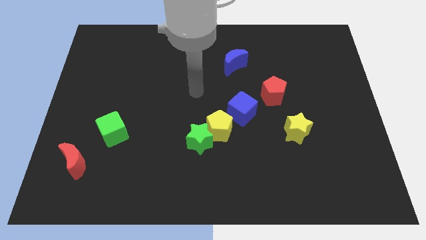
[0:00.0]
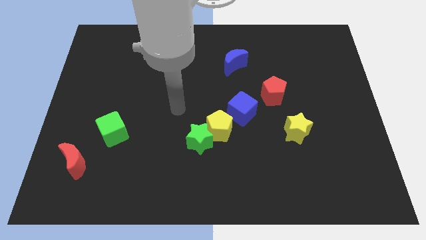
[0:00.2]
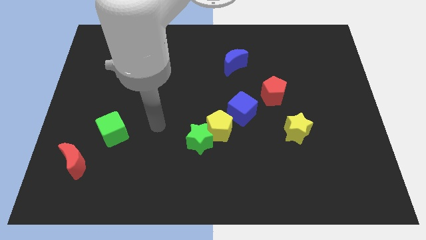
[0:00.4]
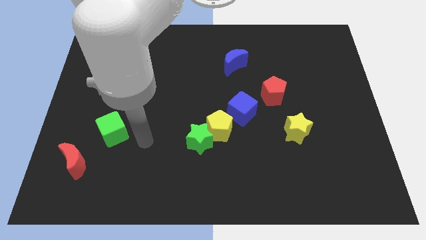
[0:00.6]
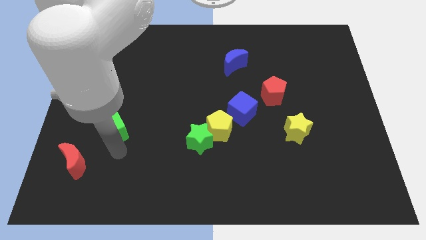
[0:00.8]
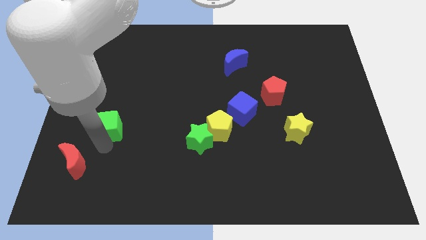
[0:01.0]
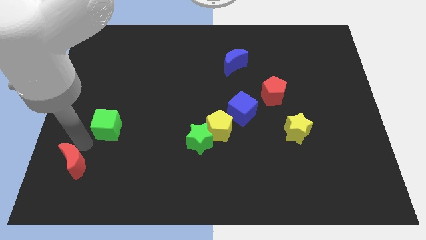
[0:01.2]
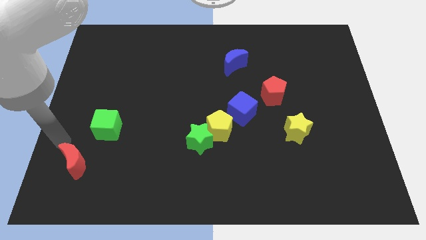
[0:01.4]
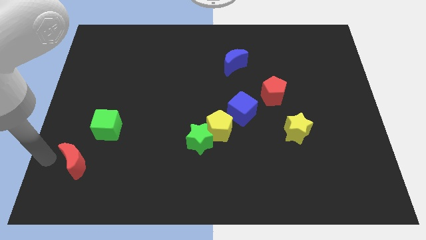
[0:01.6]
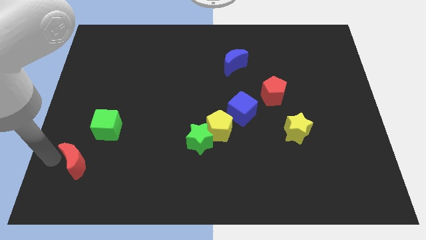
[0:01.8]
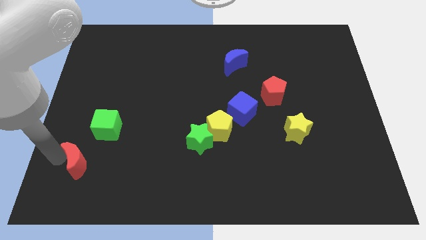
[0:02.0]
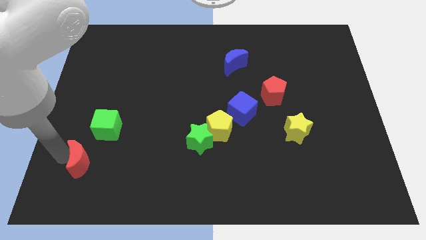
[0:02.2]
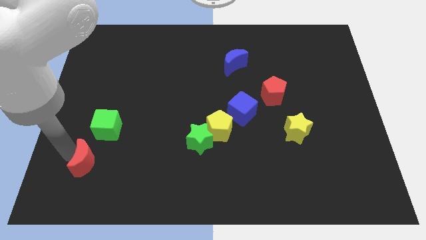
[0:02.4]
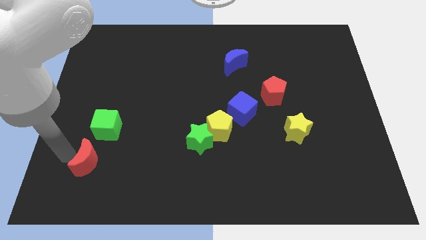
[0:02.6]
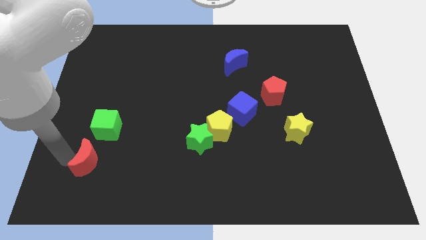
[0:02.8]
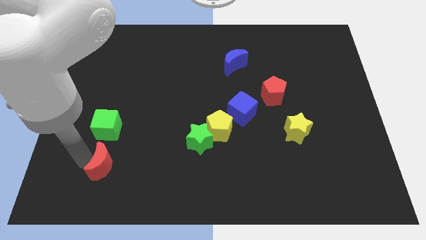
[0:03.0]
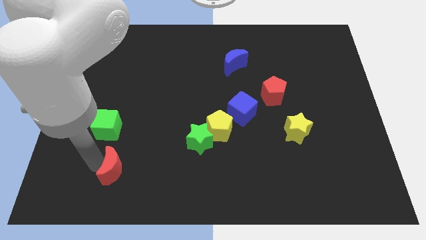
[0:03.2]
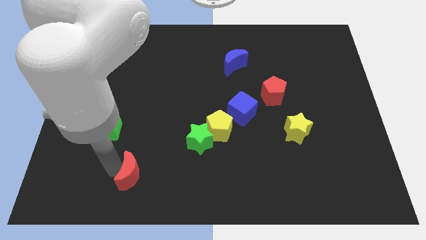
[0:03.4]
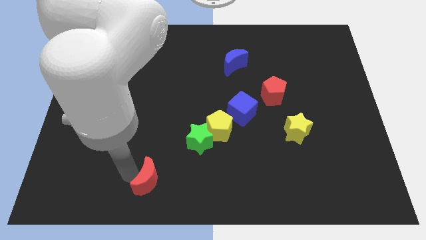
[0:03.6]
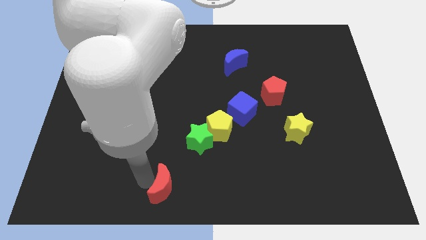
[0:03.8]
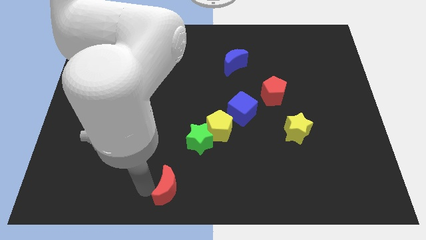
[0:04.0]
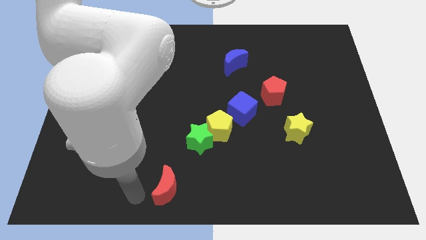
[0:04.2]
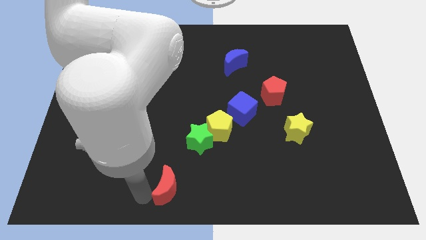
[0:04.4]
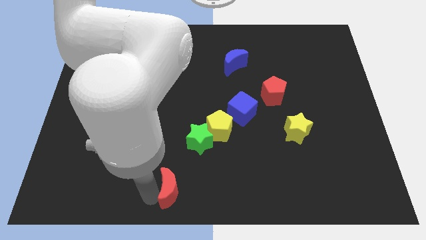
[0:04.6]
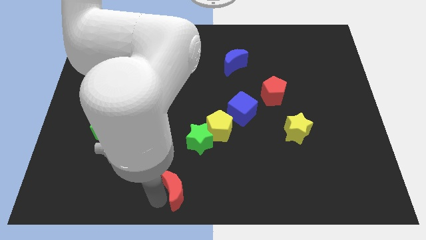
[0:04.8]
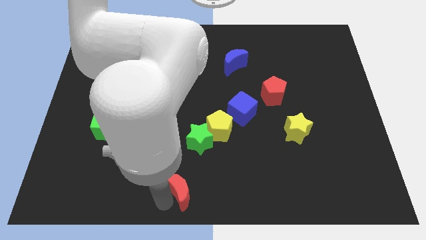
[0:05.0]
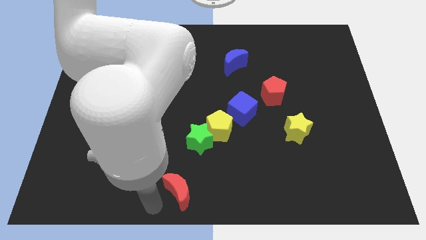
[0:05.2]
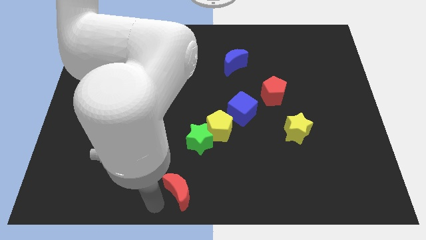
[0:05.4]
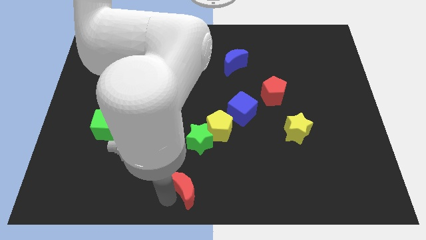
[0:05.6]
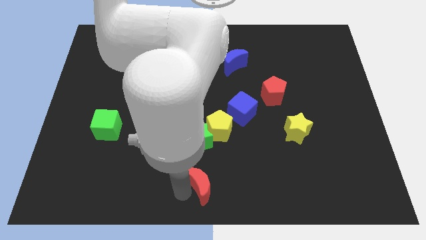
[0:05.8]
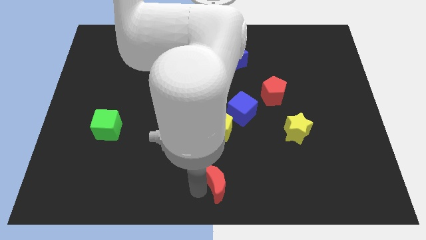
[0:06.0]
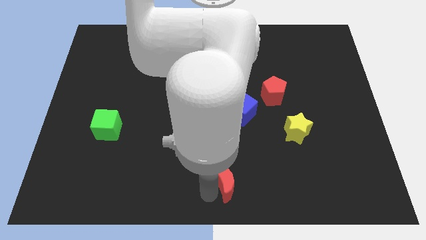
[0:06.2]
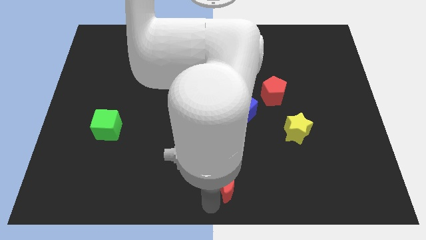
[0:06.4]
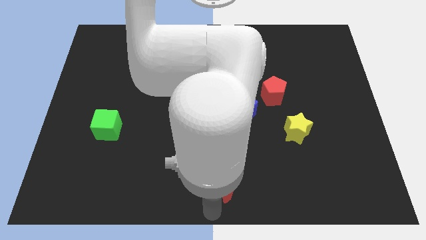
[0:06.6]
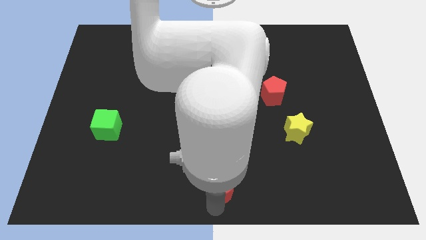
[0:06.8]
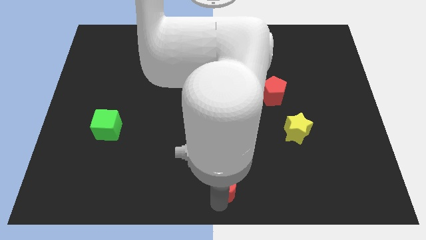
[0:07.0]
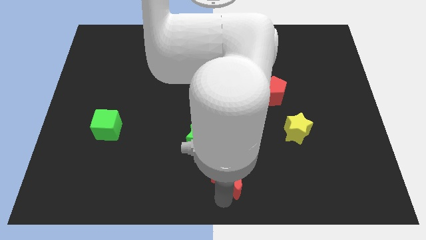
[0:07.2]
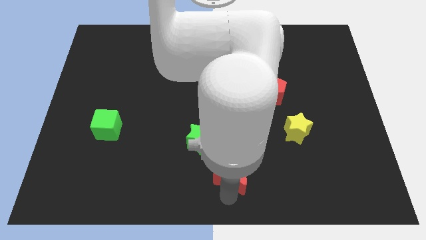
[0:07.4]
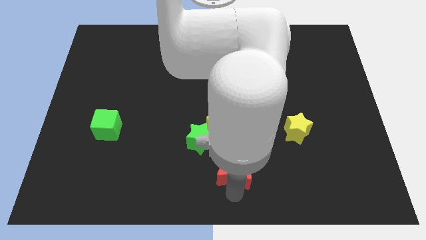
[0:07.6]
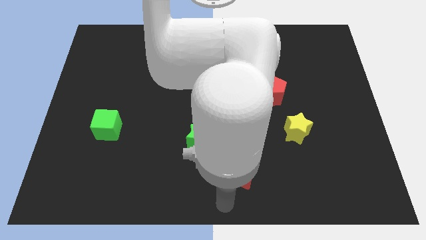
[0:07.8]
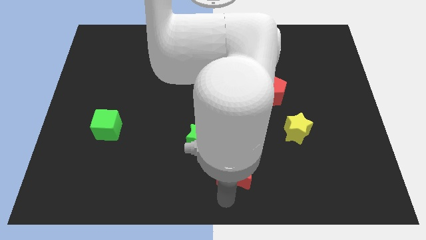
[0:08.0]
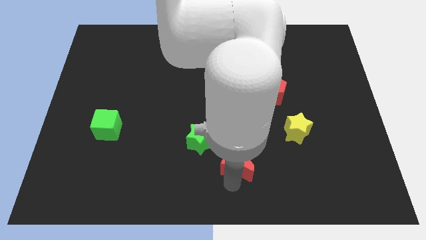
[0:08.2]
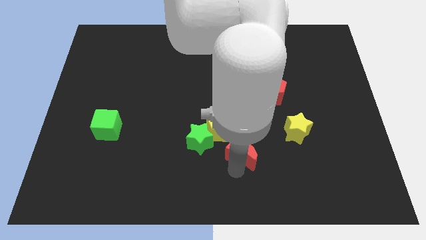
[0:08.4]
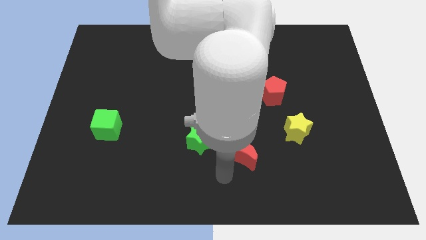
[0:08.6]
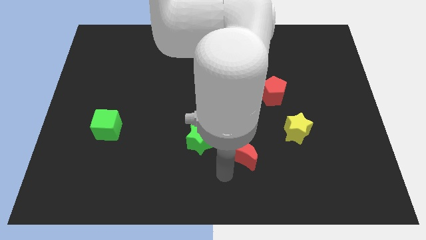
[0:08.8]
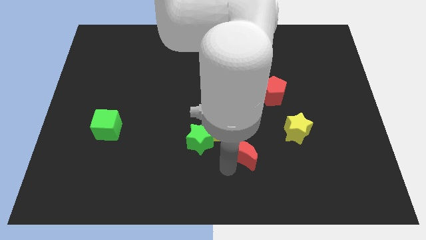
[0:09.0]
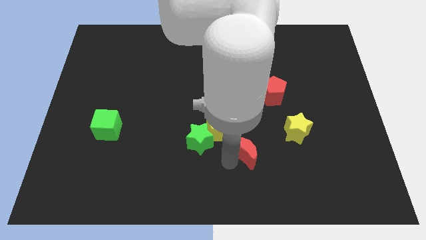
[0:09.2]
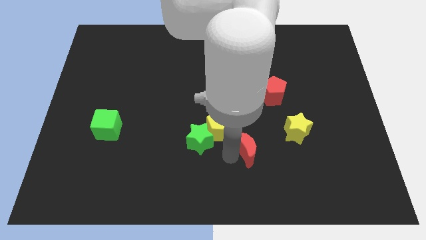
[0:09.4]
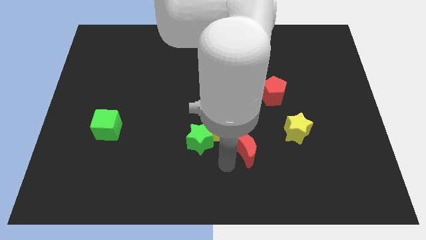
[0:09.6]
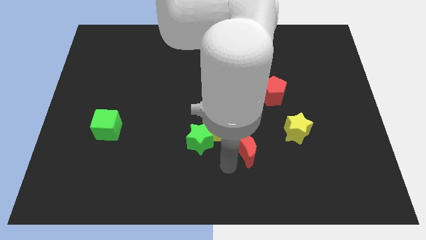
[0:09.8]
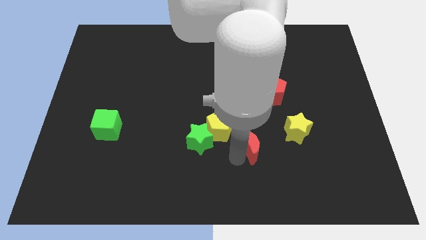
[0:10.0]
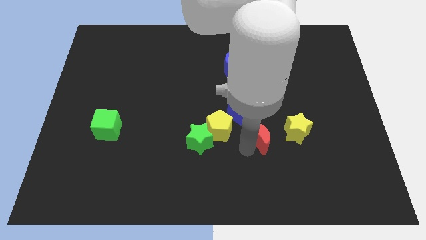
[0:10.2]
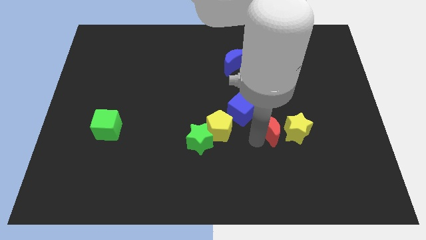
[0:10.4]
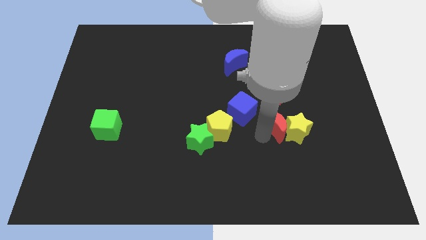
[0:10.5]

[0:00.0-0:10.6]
slide the red moon to the right of the blue cube

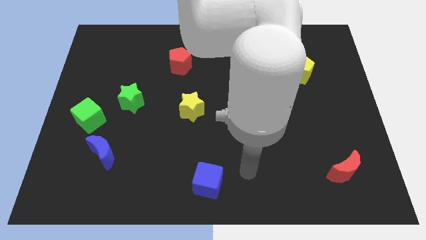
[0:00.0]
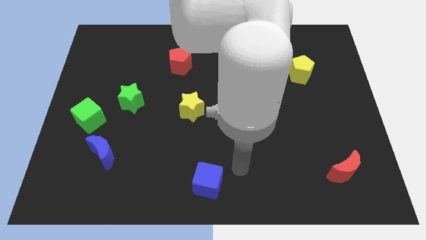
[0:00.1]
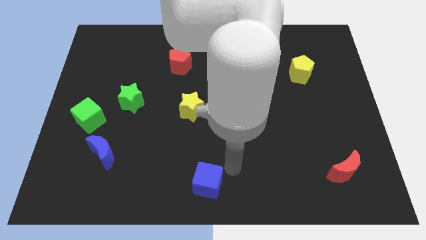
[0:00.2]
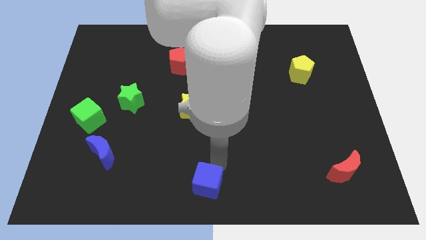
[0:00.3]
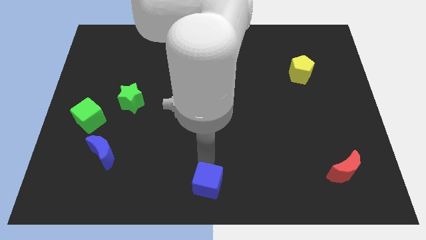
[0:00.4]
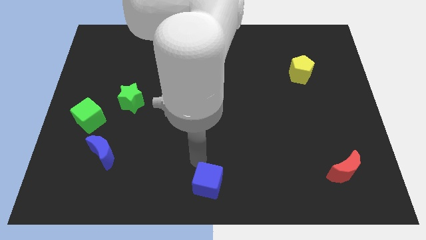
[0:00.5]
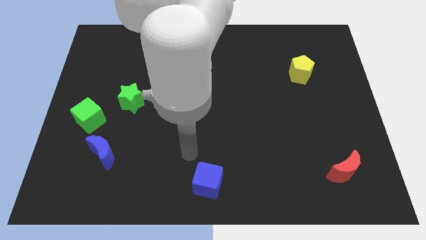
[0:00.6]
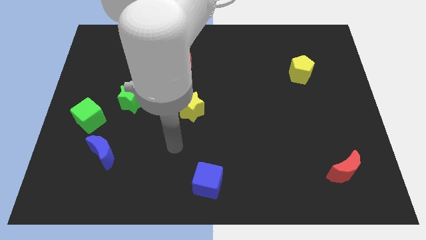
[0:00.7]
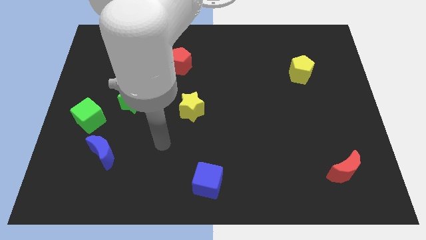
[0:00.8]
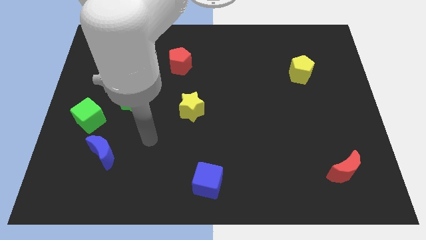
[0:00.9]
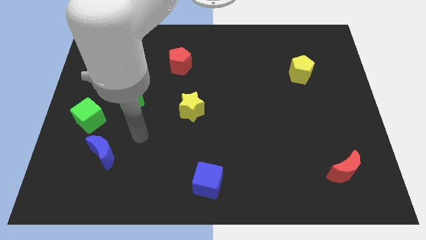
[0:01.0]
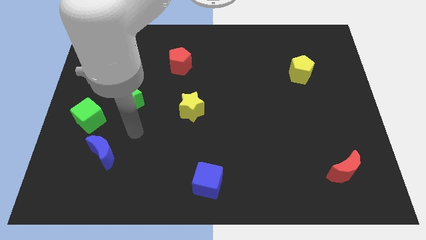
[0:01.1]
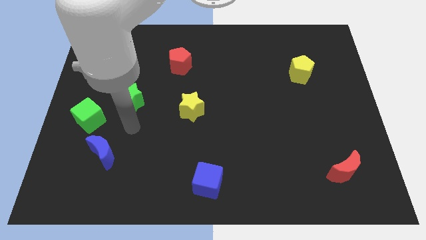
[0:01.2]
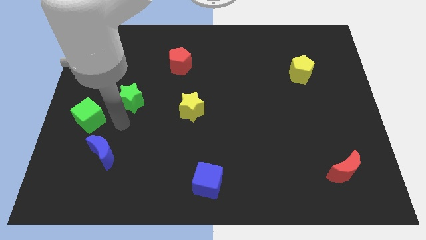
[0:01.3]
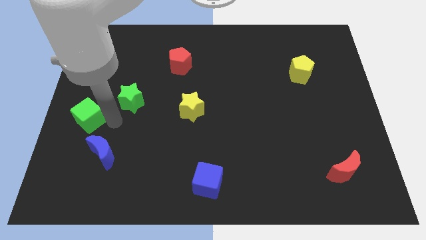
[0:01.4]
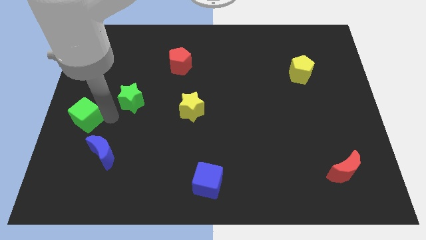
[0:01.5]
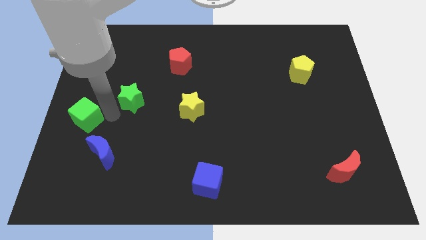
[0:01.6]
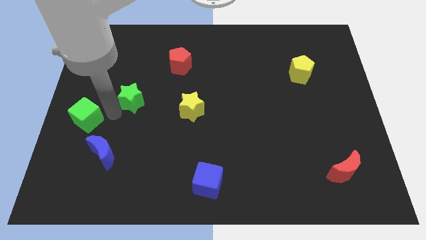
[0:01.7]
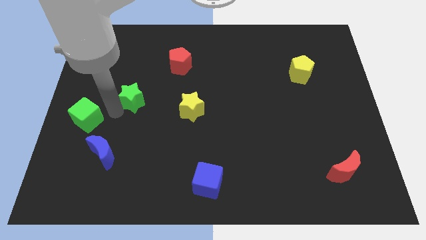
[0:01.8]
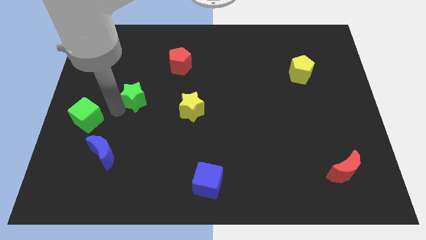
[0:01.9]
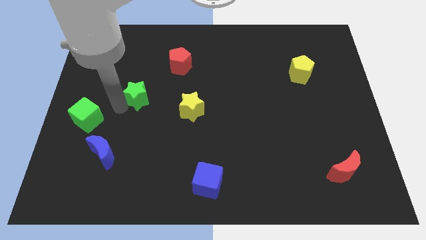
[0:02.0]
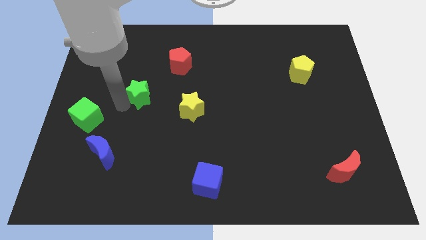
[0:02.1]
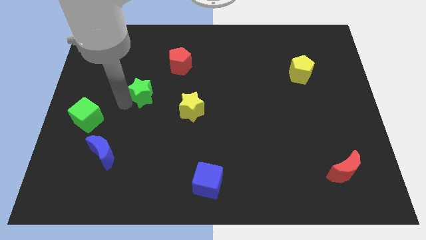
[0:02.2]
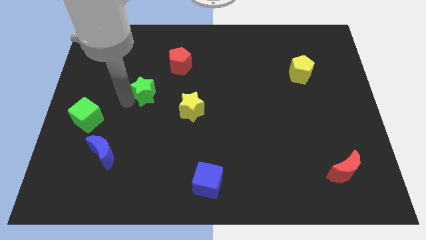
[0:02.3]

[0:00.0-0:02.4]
slide the green star to the bottom left side of the red pentagon
